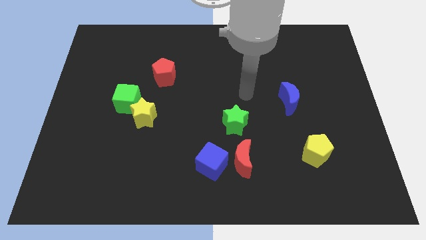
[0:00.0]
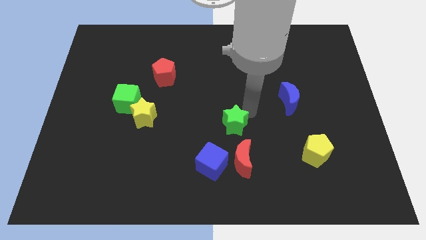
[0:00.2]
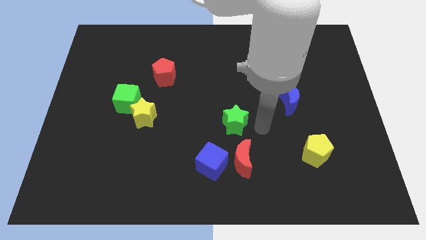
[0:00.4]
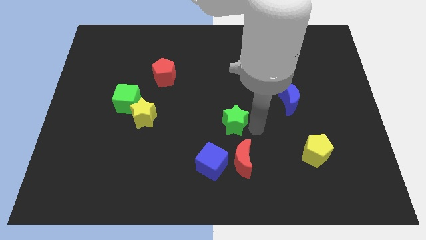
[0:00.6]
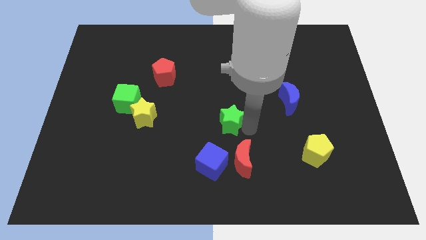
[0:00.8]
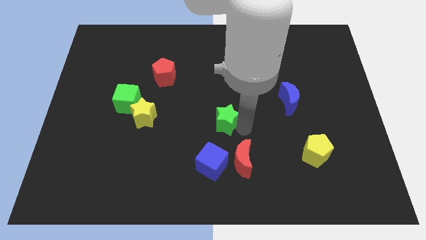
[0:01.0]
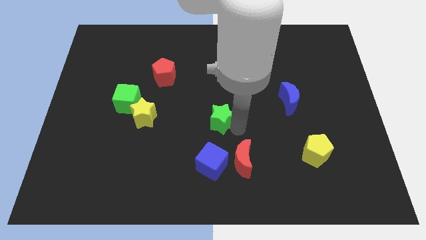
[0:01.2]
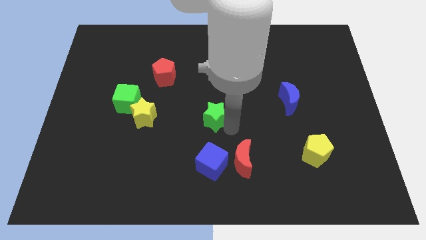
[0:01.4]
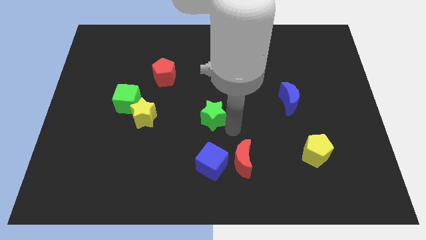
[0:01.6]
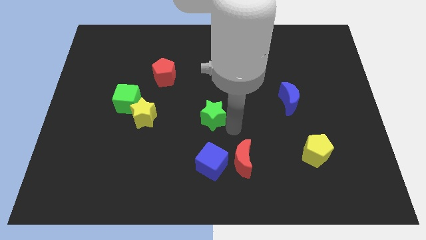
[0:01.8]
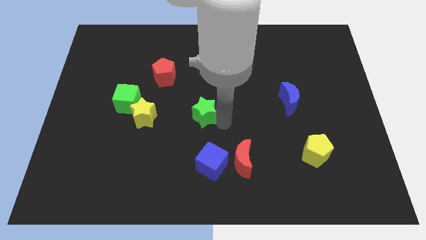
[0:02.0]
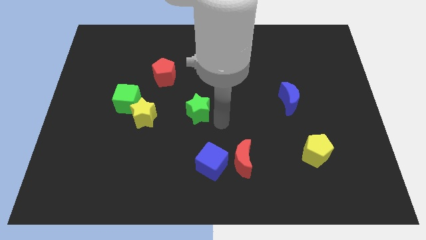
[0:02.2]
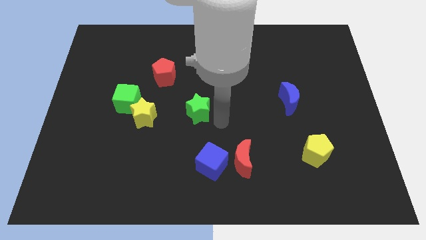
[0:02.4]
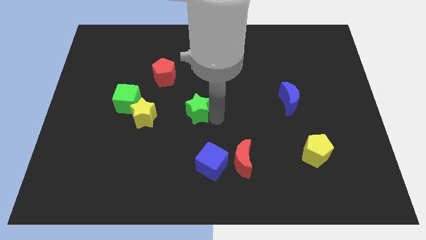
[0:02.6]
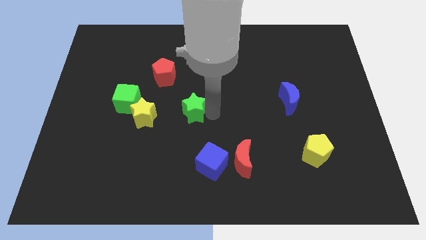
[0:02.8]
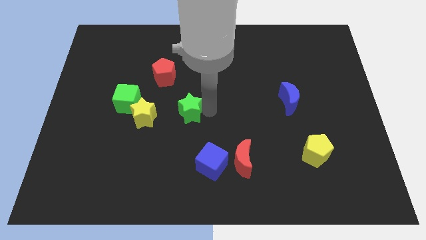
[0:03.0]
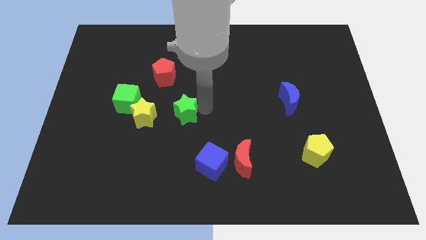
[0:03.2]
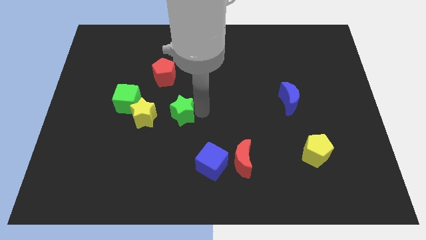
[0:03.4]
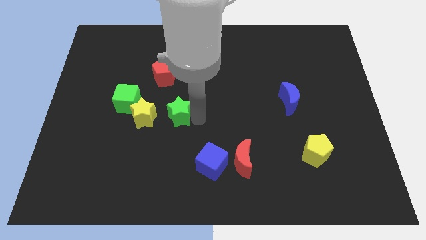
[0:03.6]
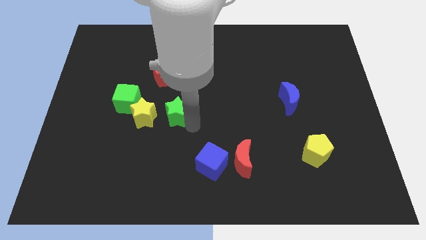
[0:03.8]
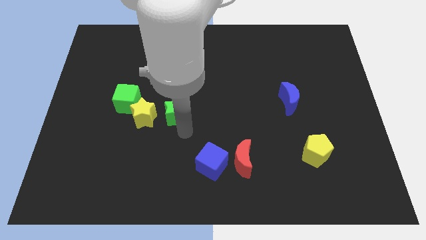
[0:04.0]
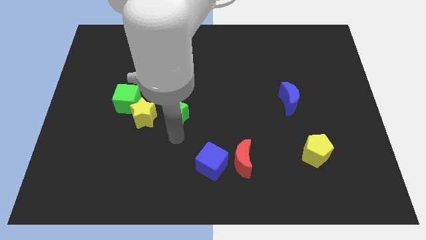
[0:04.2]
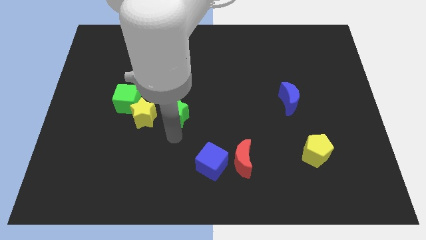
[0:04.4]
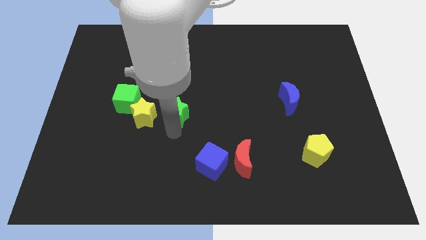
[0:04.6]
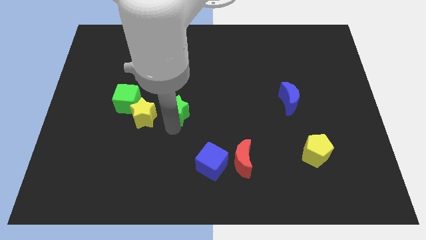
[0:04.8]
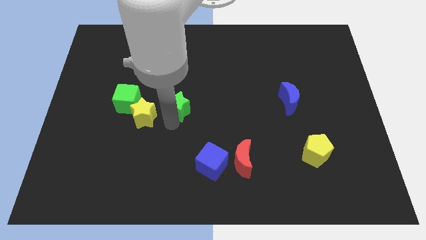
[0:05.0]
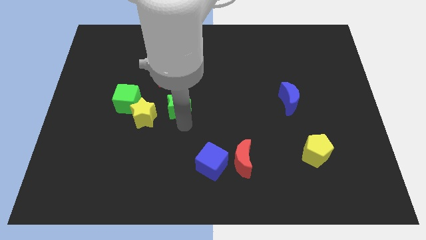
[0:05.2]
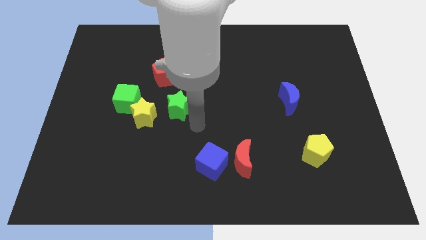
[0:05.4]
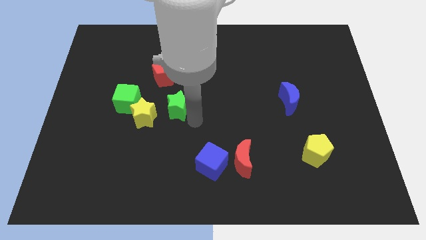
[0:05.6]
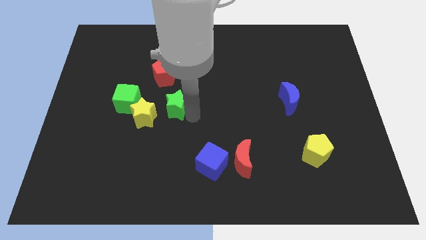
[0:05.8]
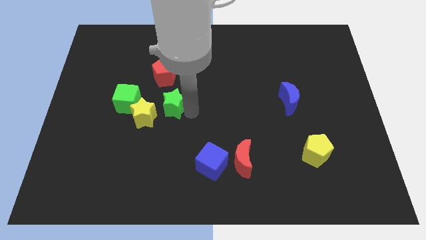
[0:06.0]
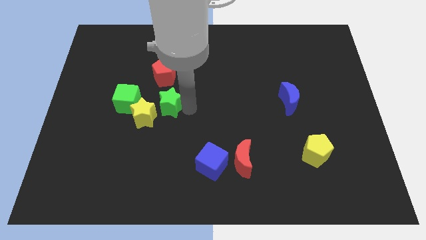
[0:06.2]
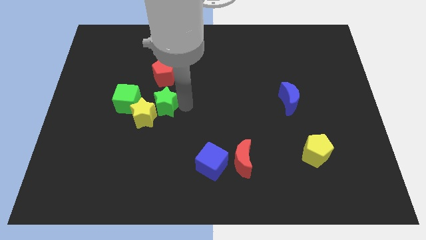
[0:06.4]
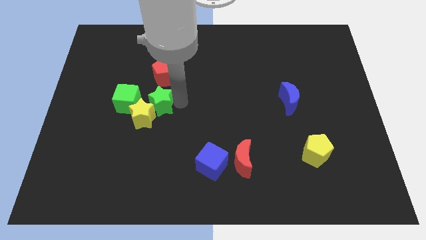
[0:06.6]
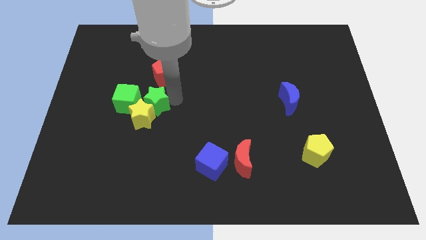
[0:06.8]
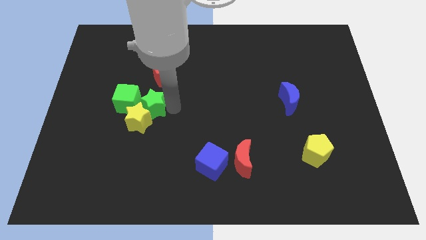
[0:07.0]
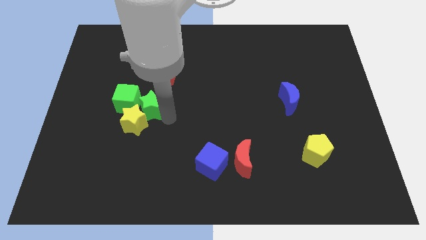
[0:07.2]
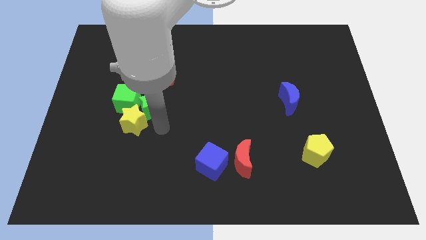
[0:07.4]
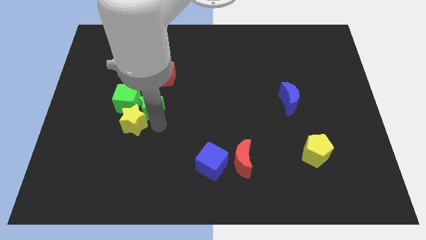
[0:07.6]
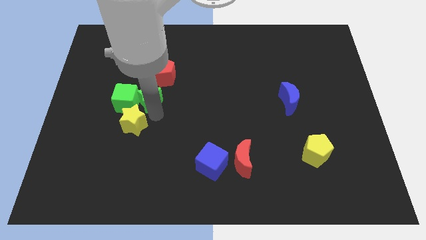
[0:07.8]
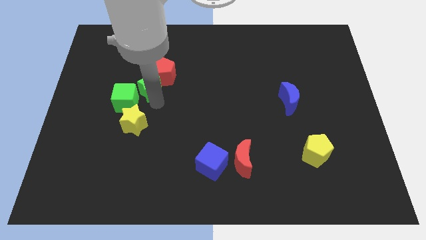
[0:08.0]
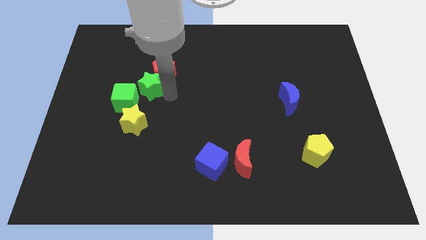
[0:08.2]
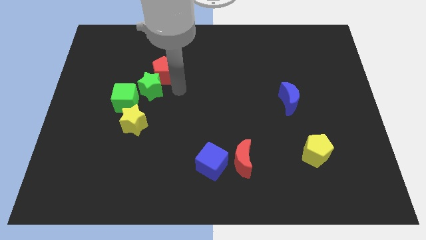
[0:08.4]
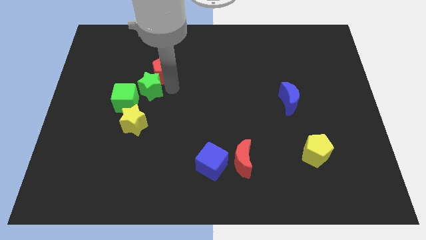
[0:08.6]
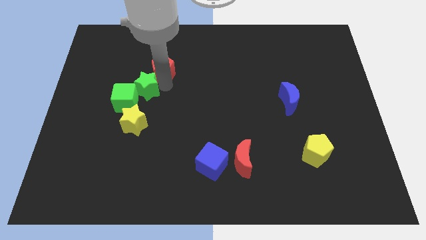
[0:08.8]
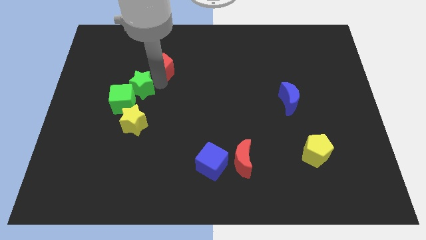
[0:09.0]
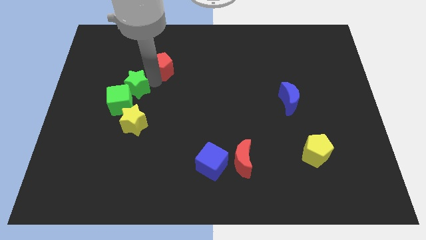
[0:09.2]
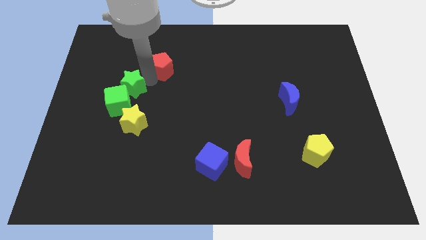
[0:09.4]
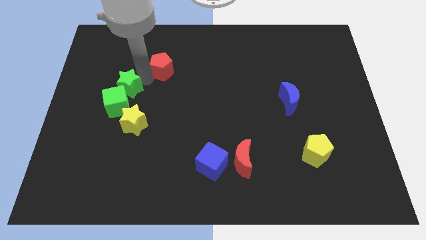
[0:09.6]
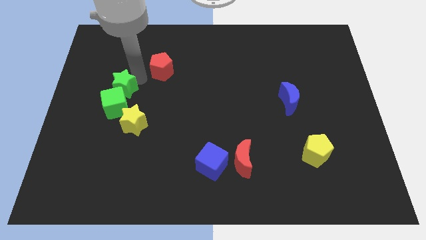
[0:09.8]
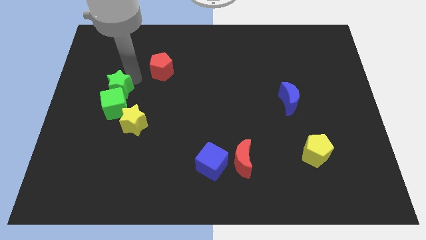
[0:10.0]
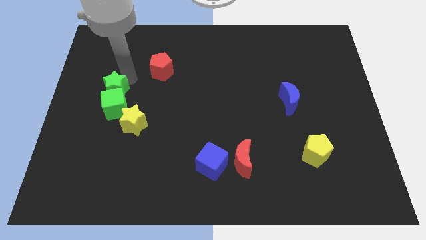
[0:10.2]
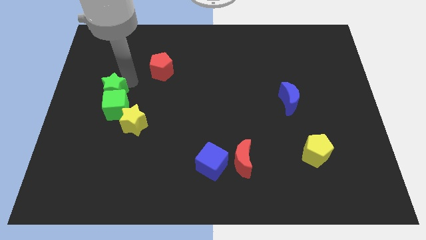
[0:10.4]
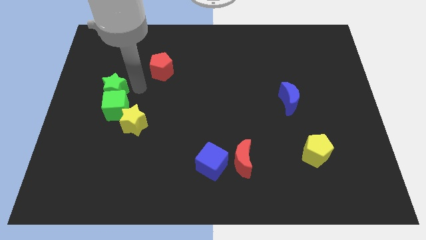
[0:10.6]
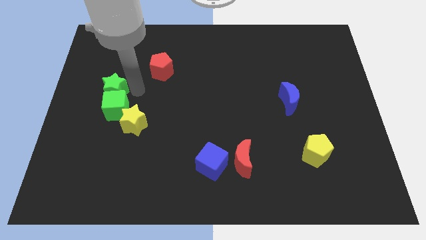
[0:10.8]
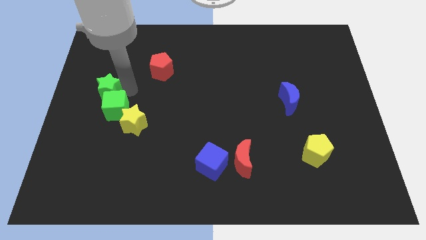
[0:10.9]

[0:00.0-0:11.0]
push the green star to the left side of the board
